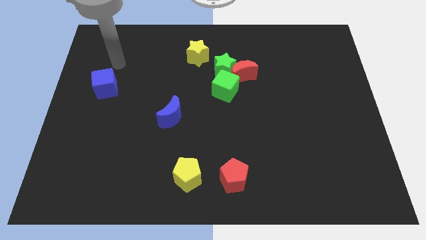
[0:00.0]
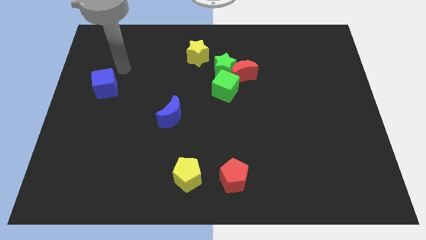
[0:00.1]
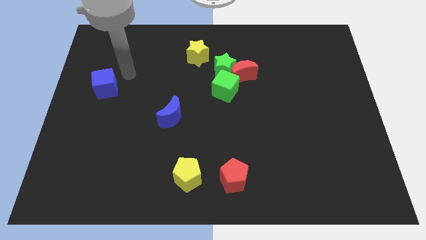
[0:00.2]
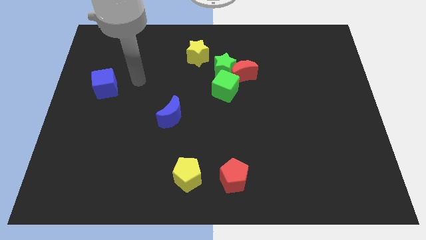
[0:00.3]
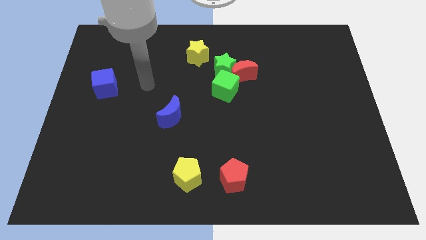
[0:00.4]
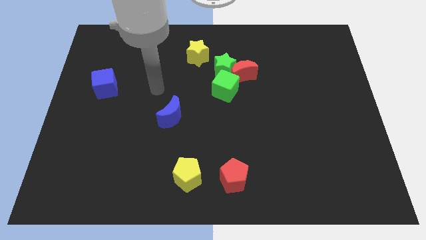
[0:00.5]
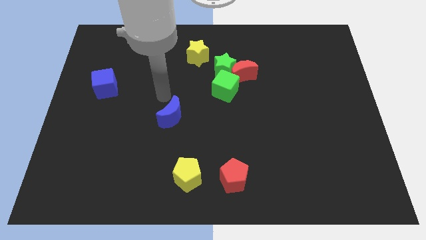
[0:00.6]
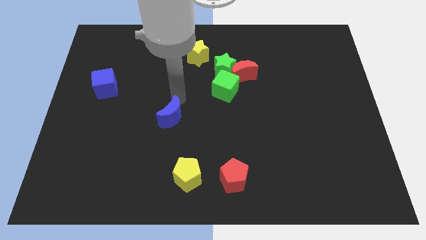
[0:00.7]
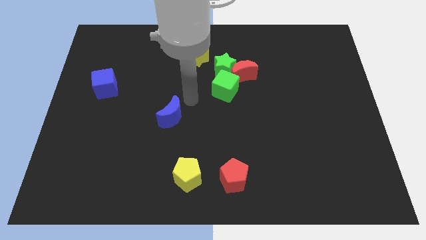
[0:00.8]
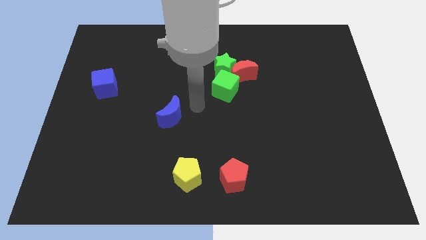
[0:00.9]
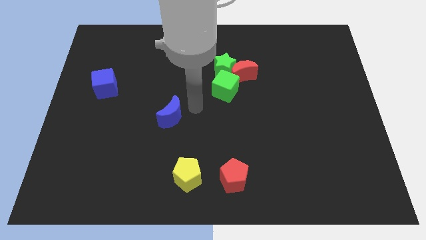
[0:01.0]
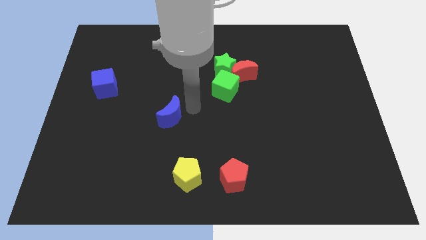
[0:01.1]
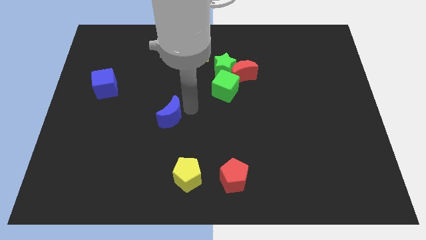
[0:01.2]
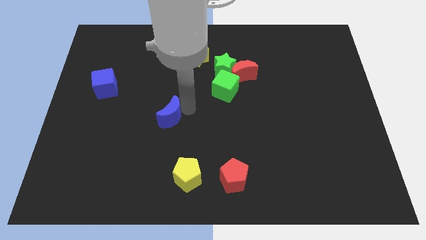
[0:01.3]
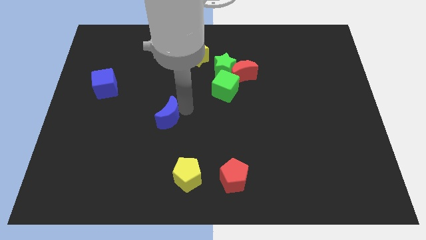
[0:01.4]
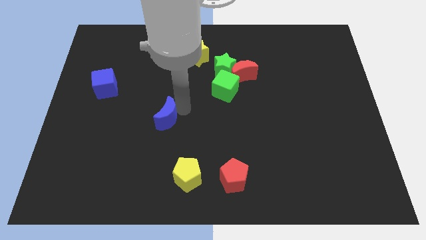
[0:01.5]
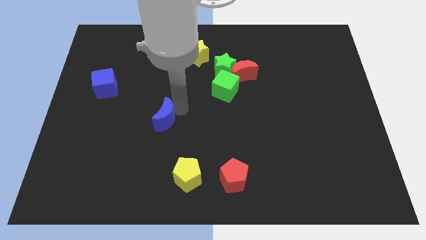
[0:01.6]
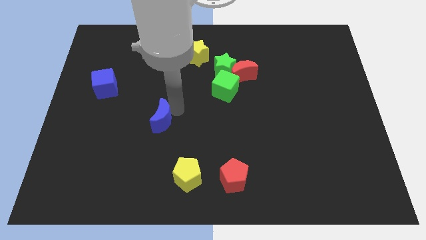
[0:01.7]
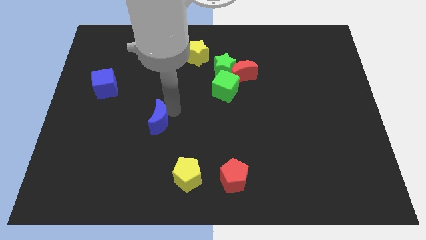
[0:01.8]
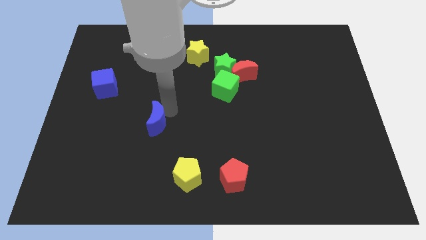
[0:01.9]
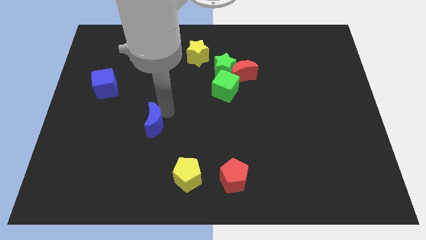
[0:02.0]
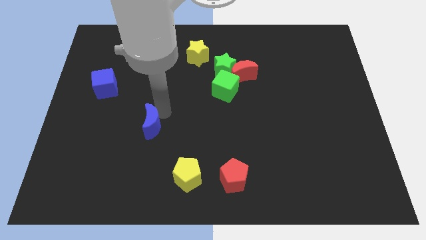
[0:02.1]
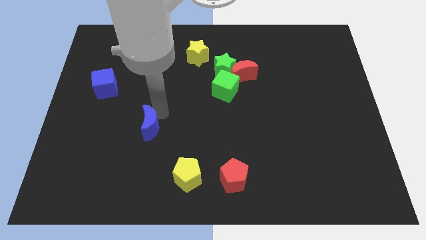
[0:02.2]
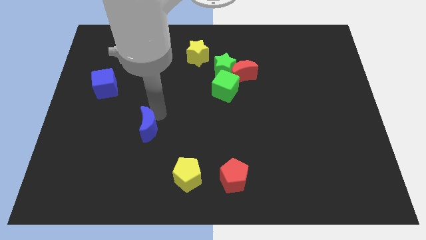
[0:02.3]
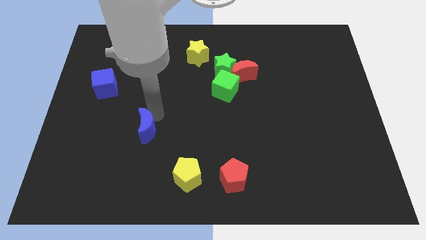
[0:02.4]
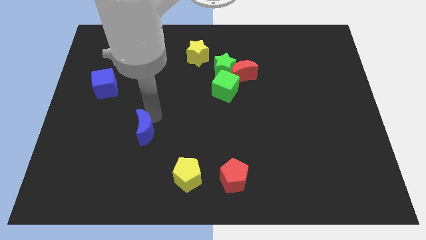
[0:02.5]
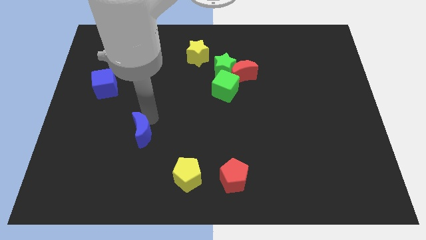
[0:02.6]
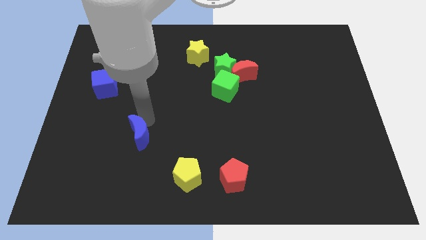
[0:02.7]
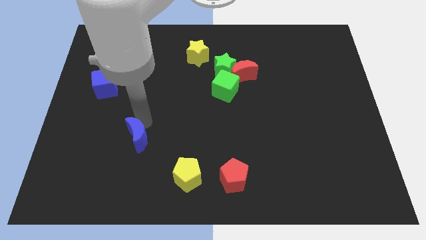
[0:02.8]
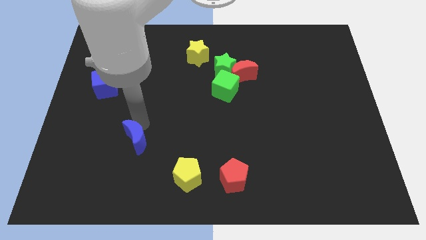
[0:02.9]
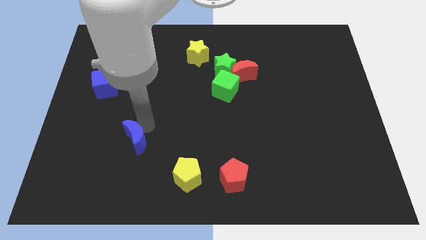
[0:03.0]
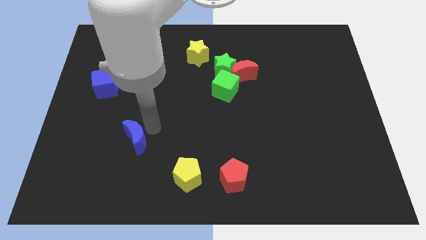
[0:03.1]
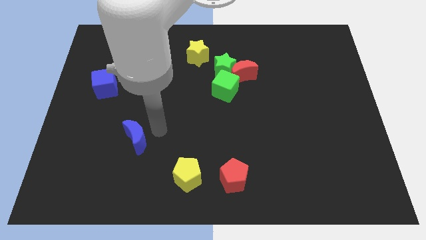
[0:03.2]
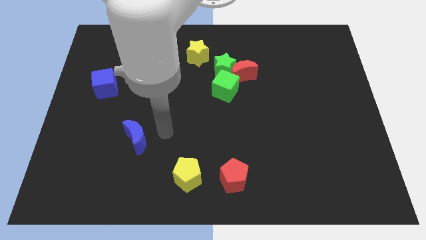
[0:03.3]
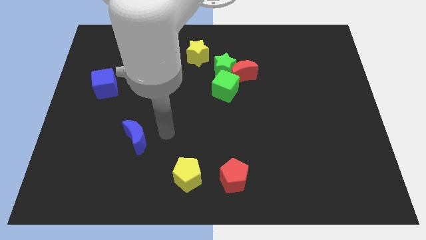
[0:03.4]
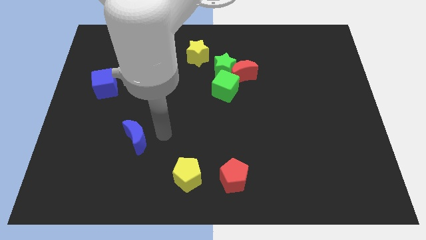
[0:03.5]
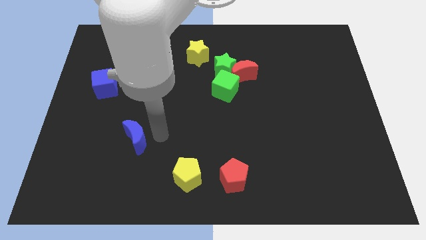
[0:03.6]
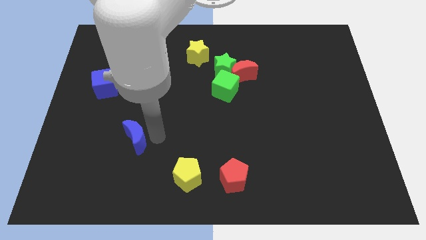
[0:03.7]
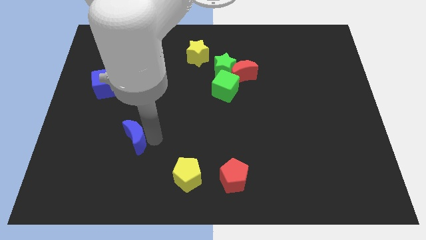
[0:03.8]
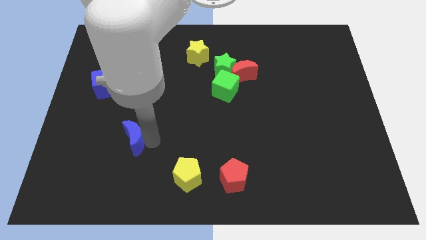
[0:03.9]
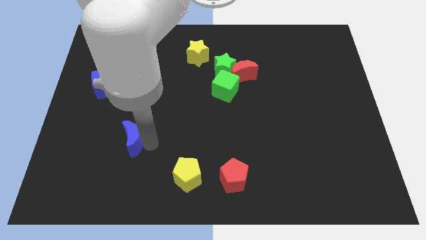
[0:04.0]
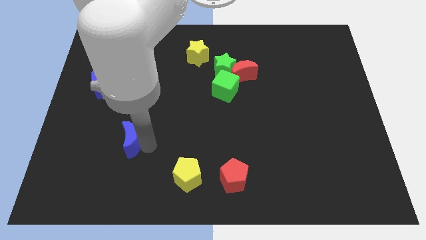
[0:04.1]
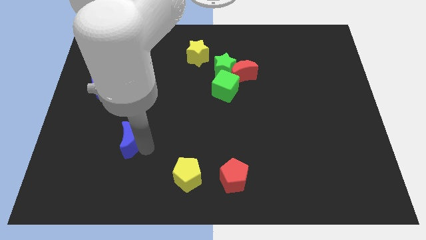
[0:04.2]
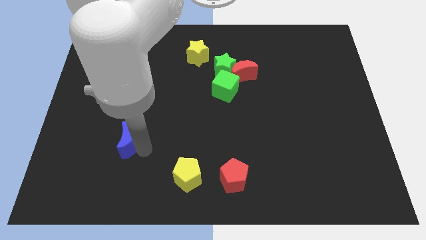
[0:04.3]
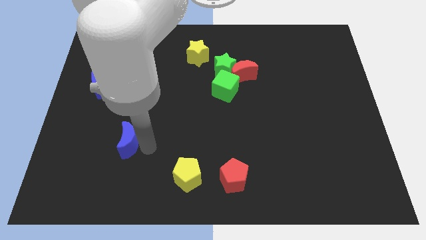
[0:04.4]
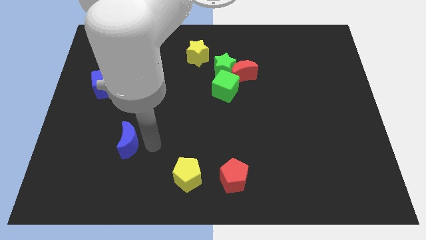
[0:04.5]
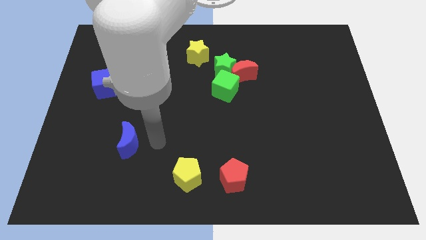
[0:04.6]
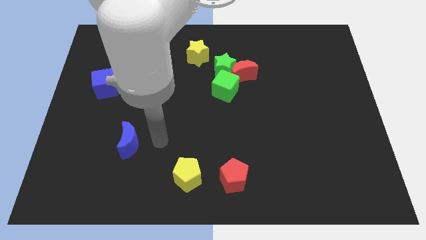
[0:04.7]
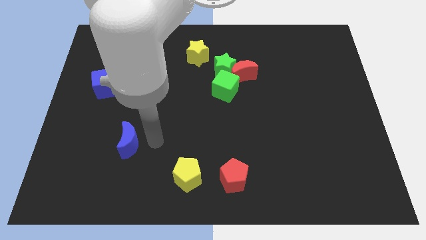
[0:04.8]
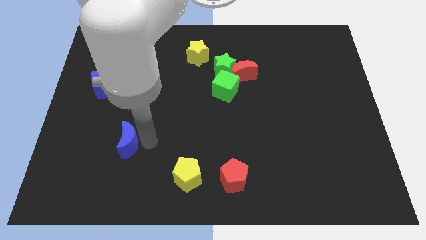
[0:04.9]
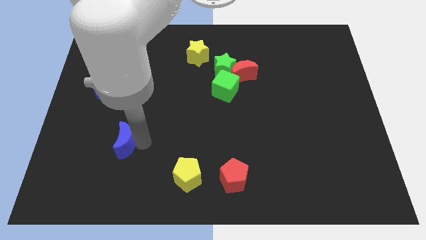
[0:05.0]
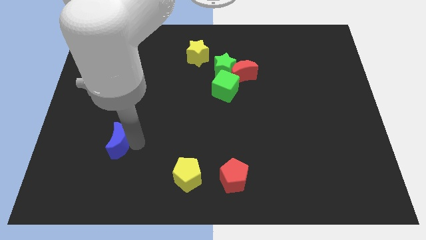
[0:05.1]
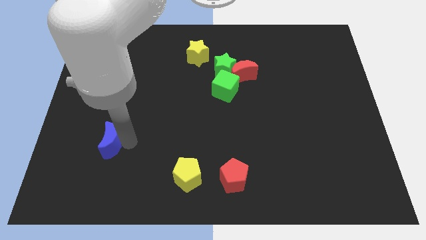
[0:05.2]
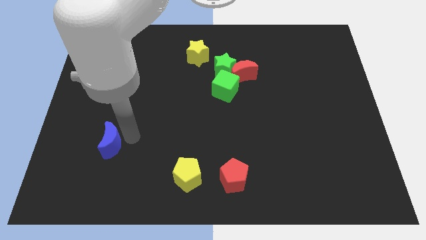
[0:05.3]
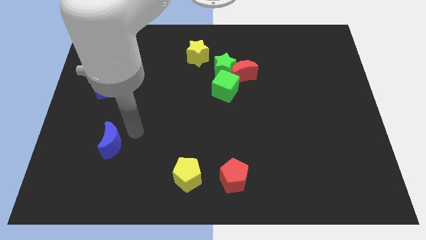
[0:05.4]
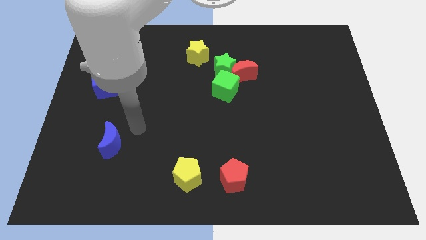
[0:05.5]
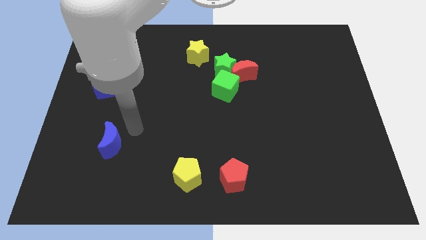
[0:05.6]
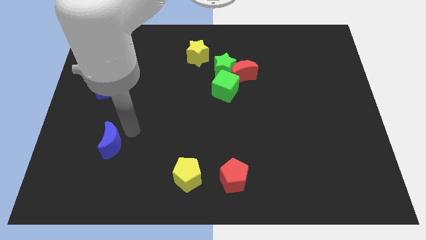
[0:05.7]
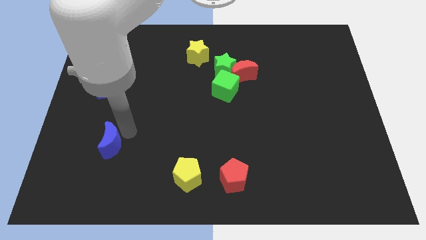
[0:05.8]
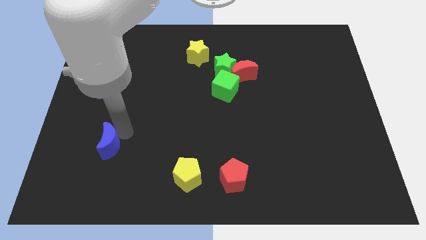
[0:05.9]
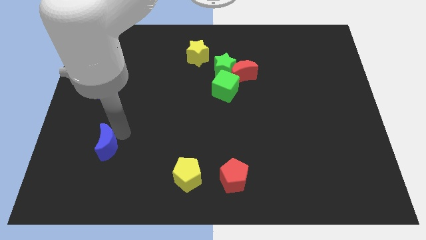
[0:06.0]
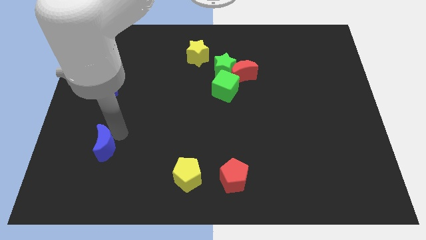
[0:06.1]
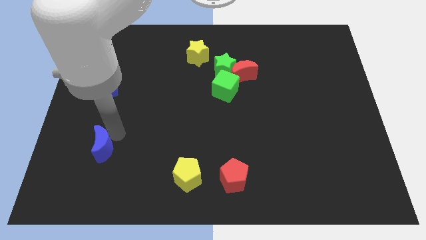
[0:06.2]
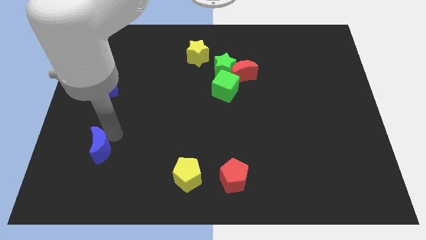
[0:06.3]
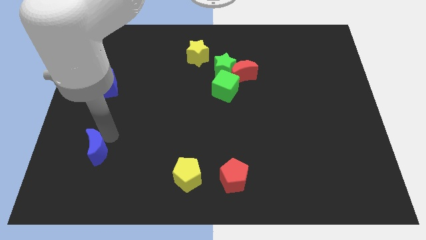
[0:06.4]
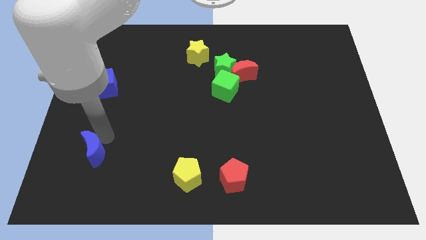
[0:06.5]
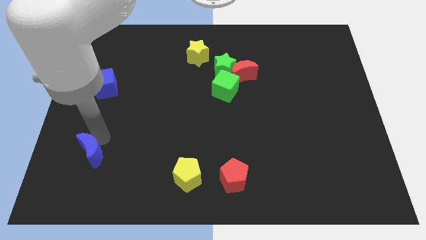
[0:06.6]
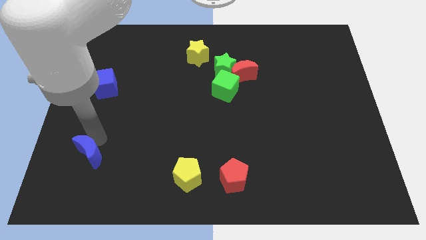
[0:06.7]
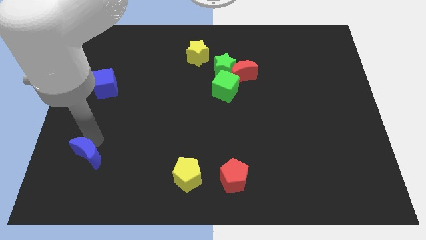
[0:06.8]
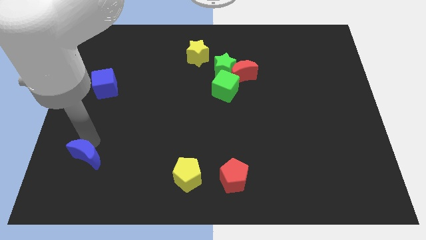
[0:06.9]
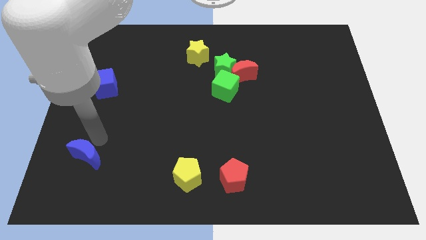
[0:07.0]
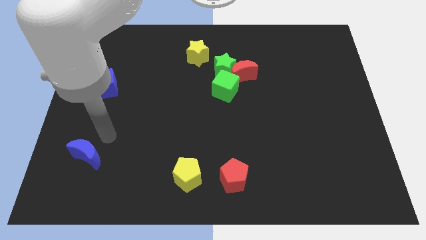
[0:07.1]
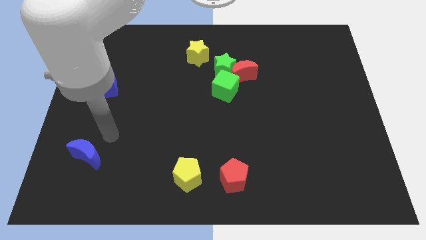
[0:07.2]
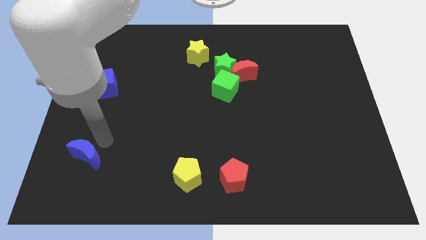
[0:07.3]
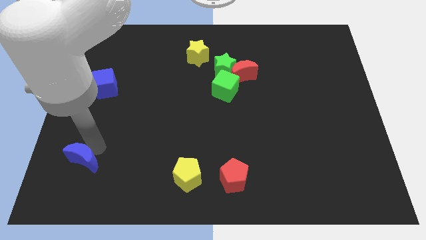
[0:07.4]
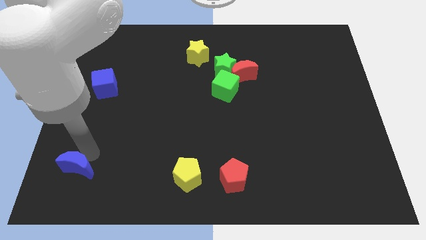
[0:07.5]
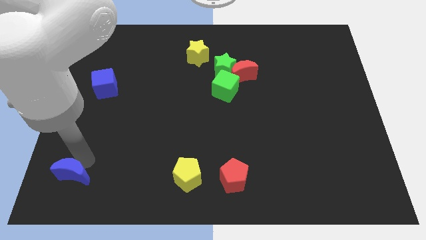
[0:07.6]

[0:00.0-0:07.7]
push the blue moon to the bottom left corner

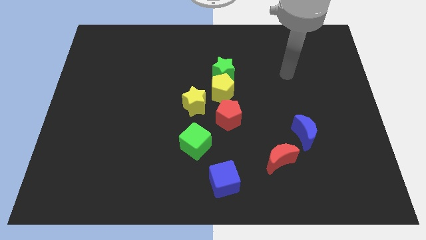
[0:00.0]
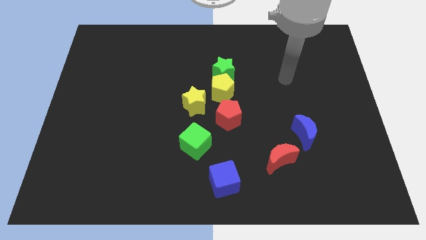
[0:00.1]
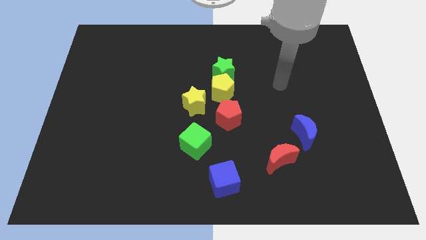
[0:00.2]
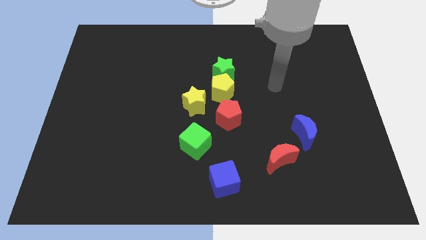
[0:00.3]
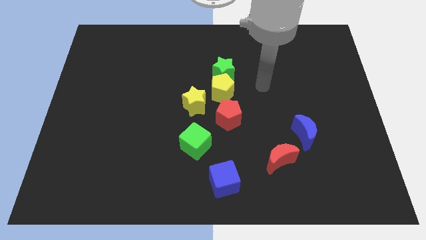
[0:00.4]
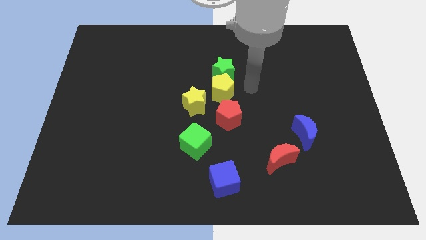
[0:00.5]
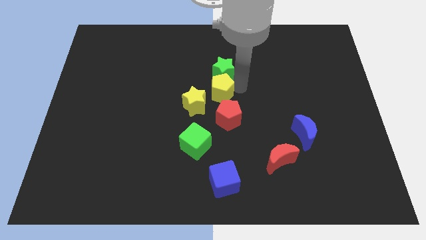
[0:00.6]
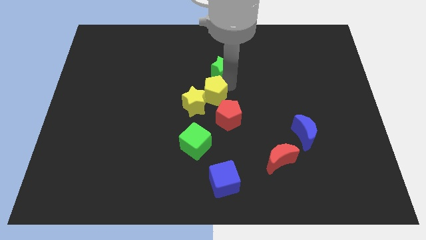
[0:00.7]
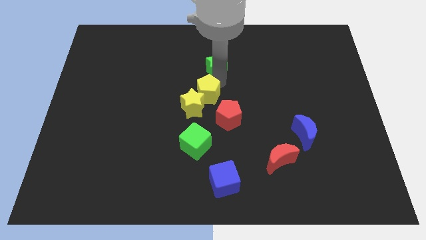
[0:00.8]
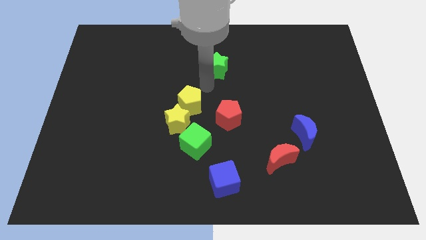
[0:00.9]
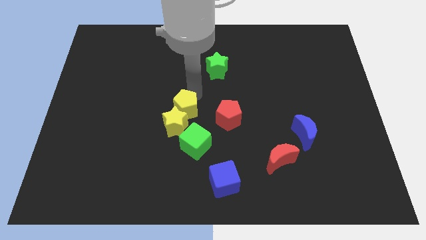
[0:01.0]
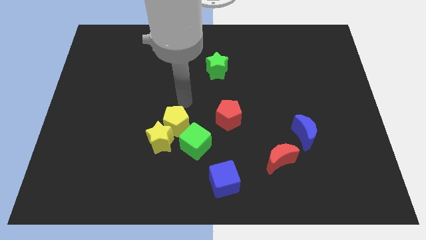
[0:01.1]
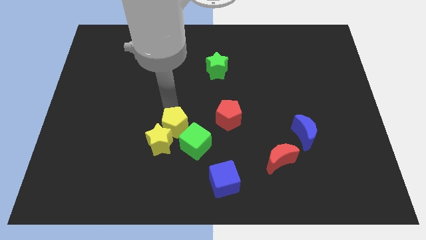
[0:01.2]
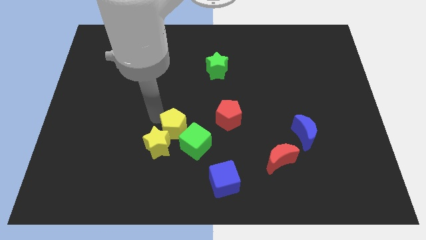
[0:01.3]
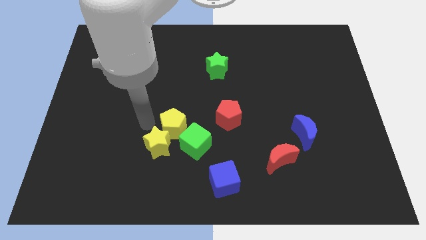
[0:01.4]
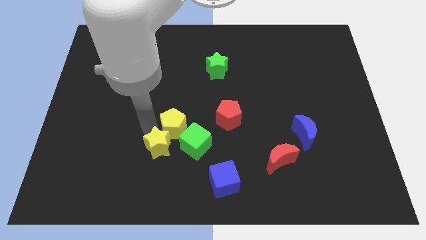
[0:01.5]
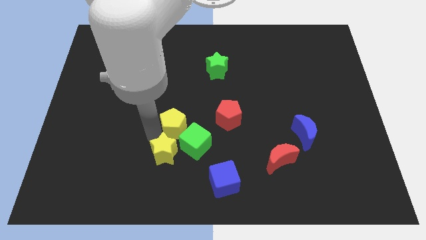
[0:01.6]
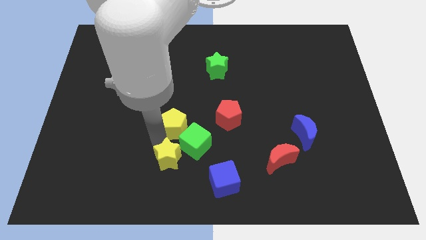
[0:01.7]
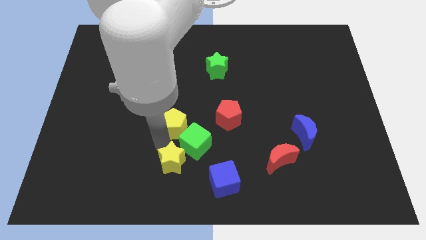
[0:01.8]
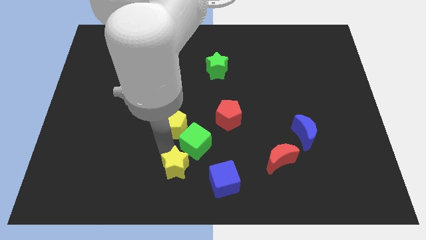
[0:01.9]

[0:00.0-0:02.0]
push the yellow star to the bottom
